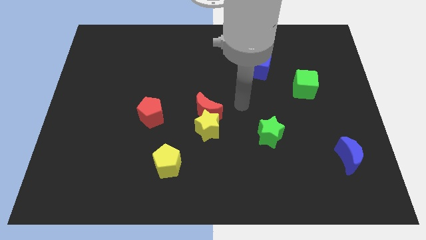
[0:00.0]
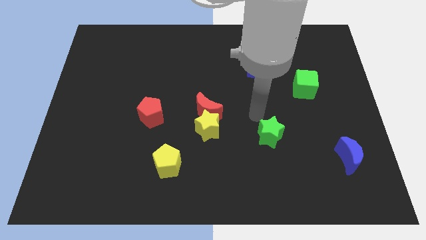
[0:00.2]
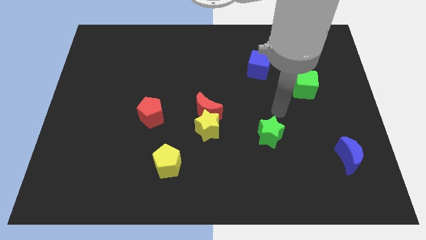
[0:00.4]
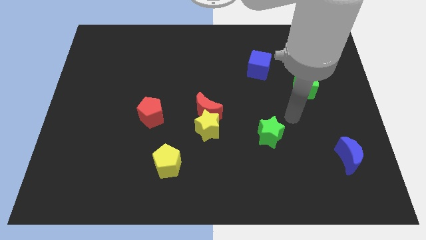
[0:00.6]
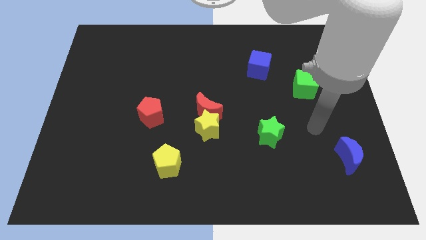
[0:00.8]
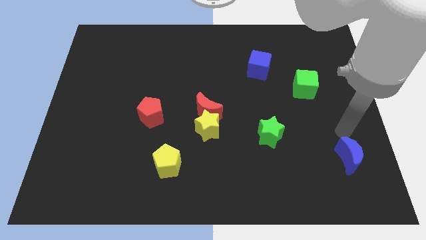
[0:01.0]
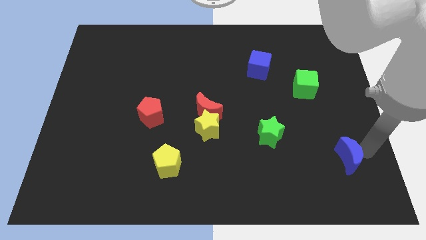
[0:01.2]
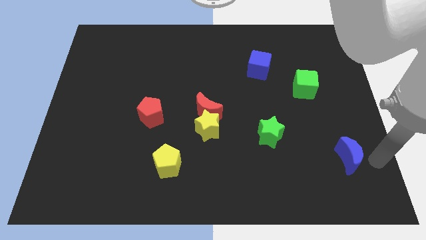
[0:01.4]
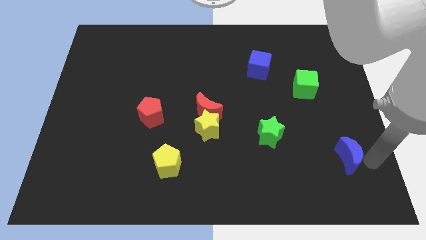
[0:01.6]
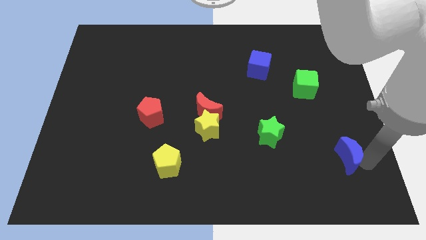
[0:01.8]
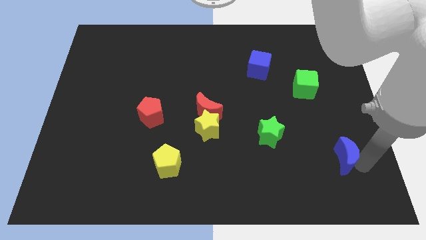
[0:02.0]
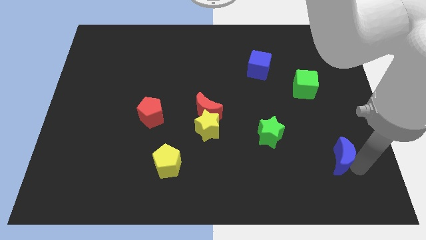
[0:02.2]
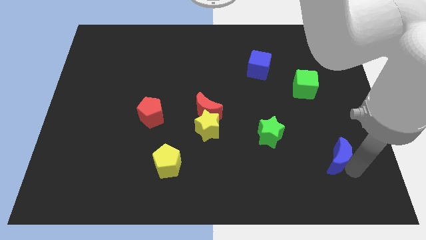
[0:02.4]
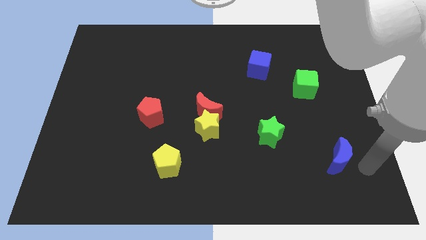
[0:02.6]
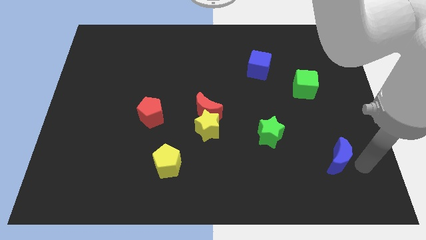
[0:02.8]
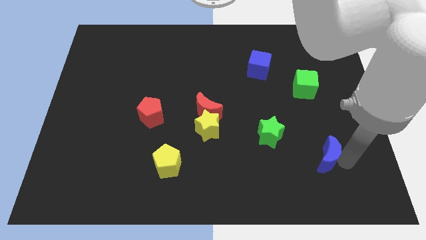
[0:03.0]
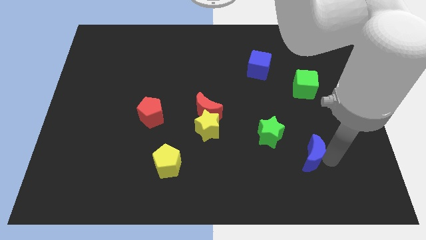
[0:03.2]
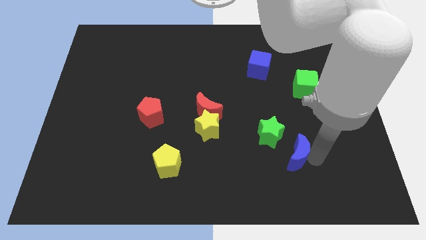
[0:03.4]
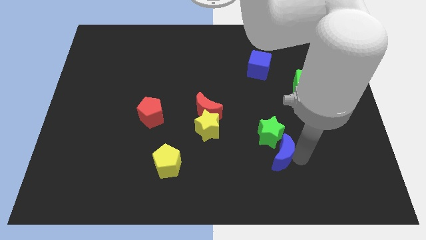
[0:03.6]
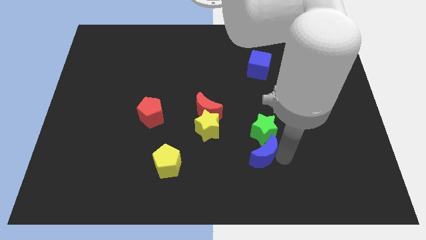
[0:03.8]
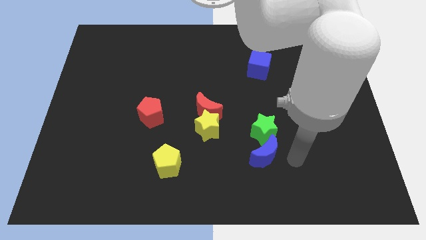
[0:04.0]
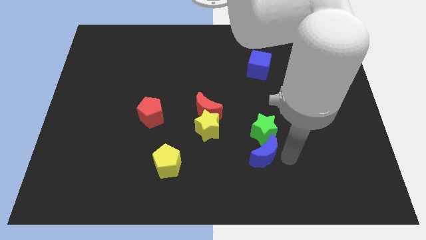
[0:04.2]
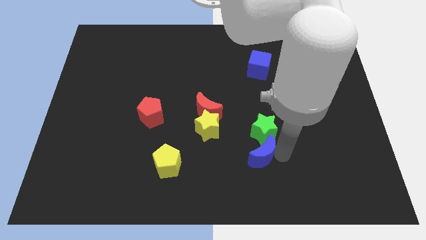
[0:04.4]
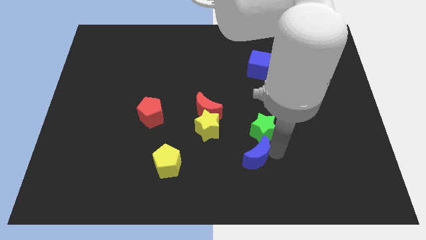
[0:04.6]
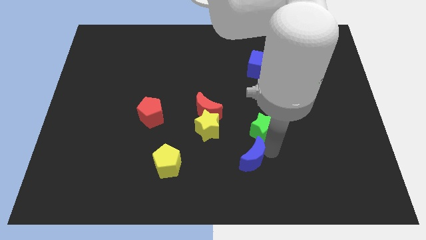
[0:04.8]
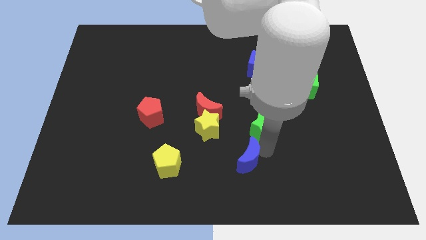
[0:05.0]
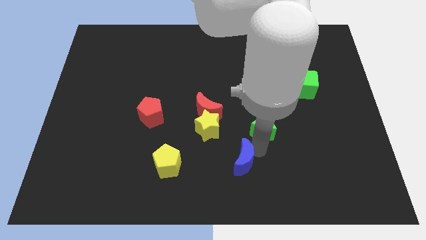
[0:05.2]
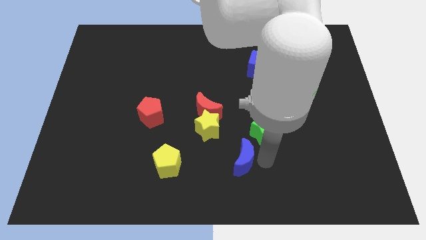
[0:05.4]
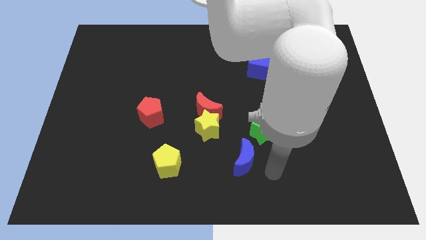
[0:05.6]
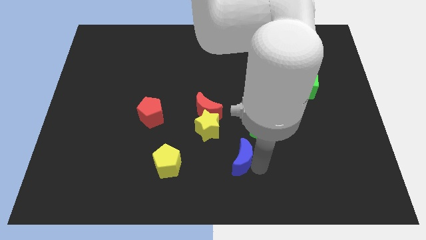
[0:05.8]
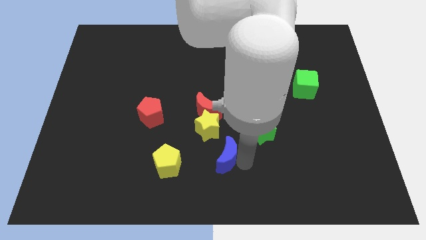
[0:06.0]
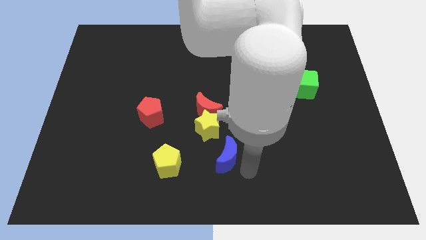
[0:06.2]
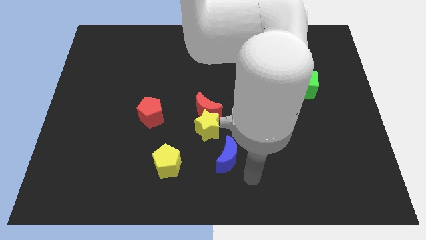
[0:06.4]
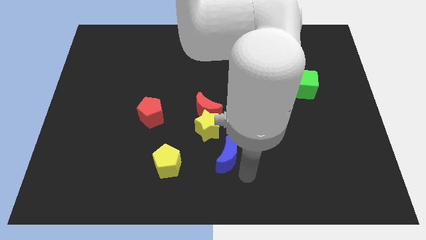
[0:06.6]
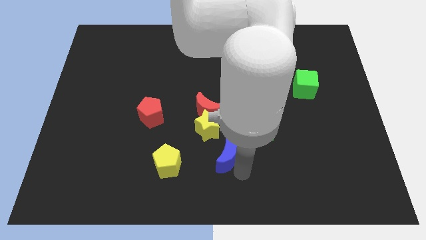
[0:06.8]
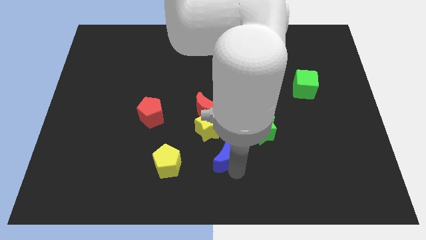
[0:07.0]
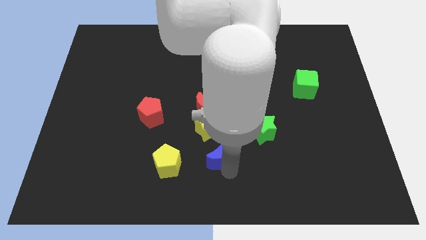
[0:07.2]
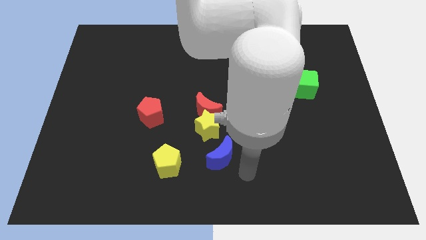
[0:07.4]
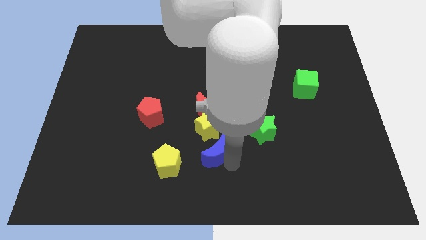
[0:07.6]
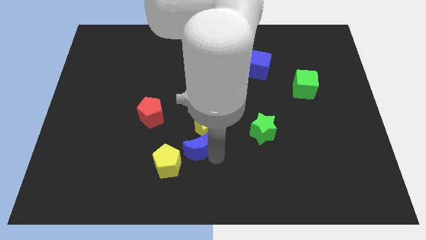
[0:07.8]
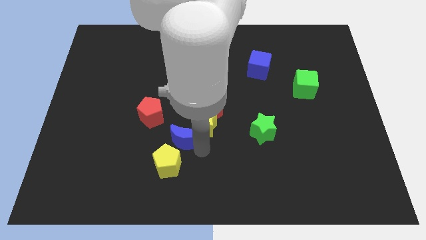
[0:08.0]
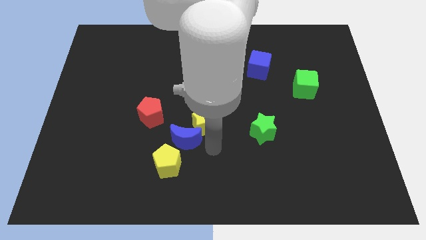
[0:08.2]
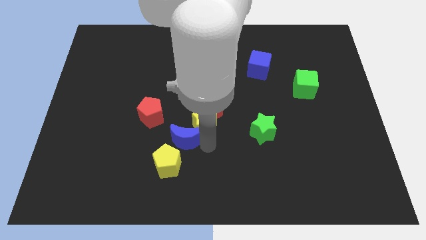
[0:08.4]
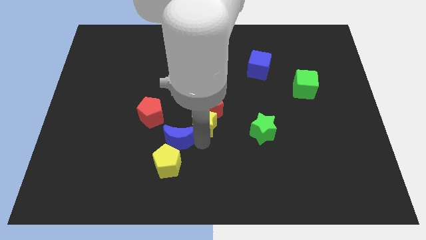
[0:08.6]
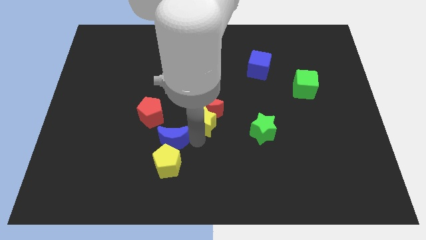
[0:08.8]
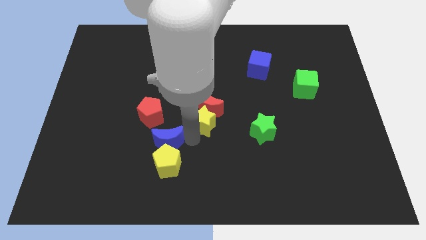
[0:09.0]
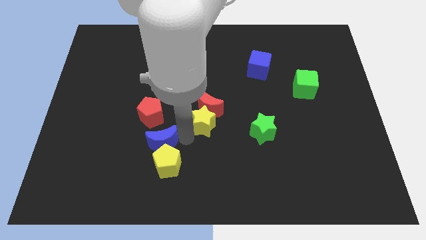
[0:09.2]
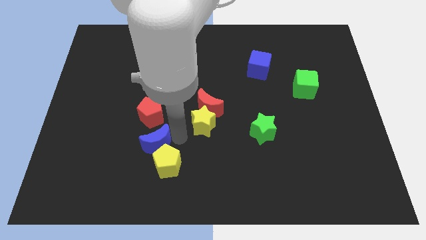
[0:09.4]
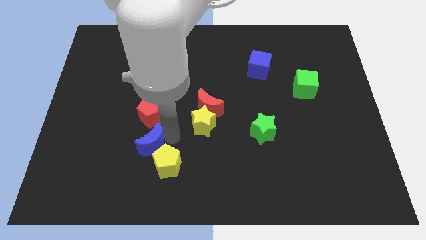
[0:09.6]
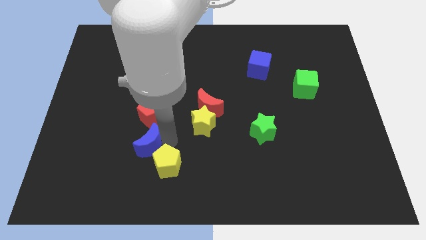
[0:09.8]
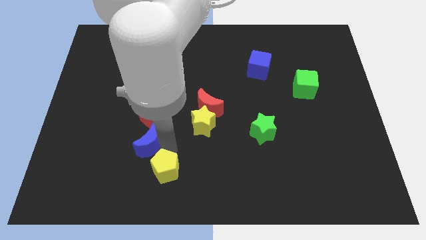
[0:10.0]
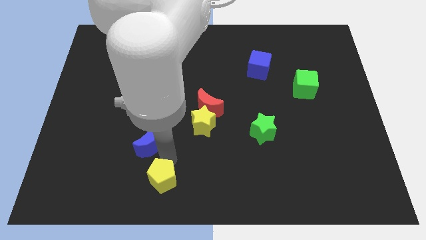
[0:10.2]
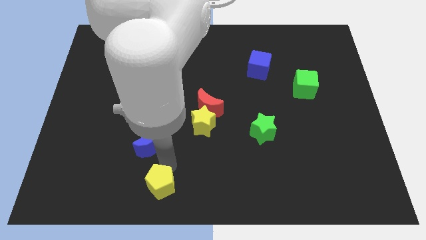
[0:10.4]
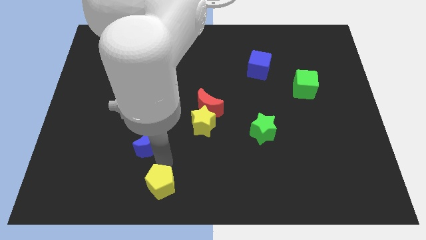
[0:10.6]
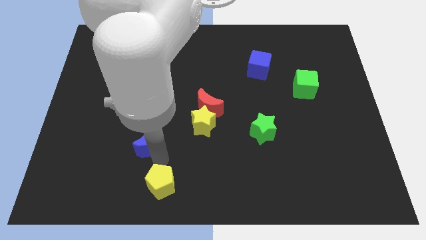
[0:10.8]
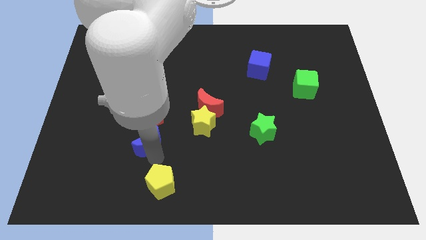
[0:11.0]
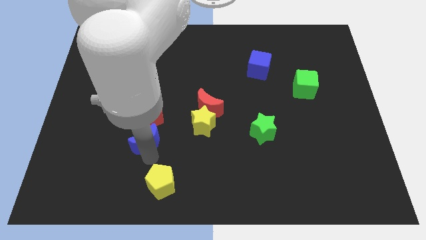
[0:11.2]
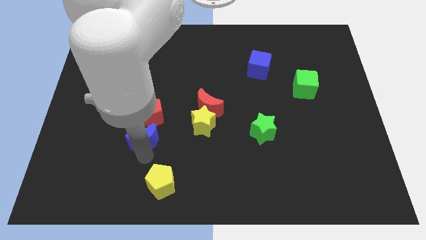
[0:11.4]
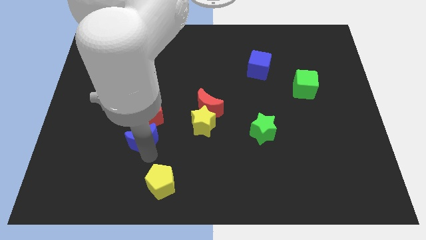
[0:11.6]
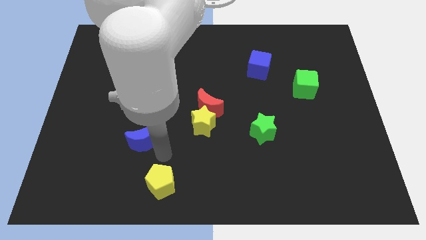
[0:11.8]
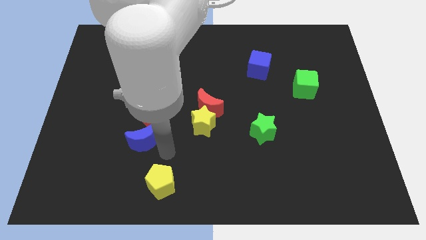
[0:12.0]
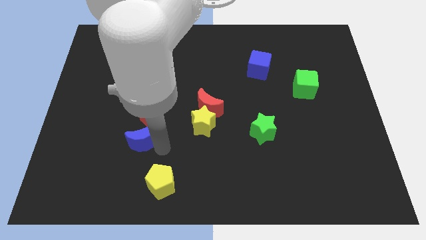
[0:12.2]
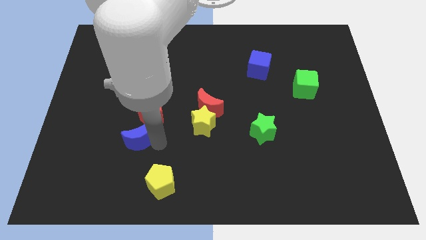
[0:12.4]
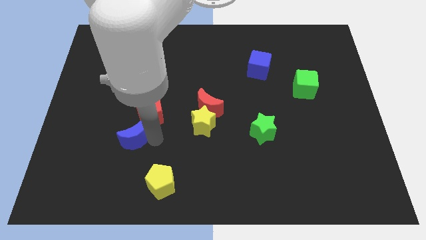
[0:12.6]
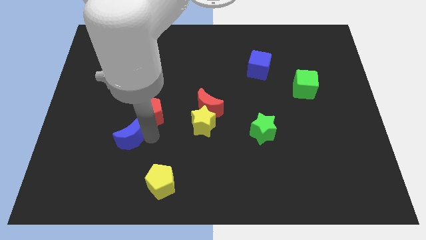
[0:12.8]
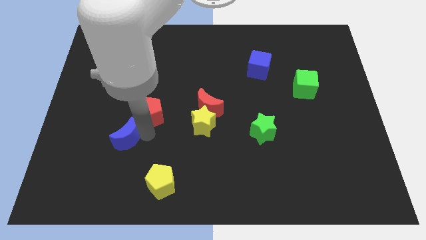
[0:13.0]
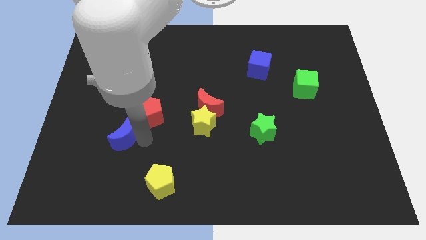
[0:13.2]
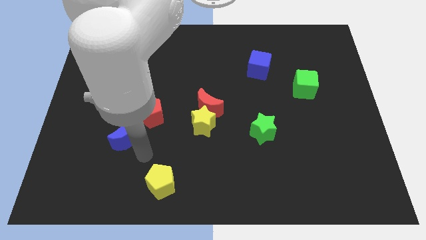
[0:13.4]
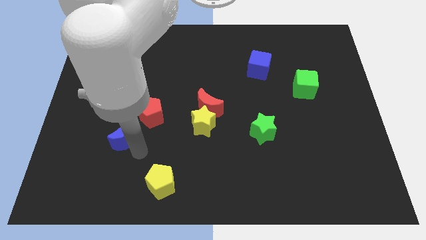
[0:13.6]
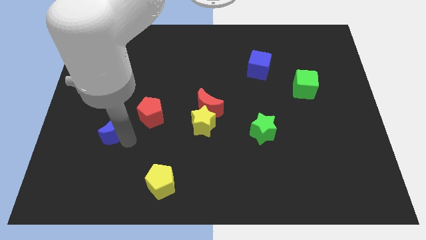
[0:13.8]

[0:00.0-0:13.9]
put the blue moon to the left of the red pentagon
